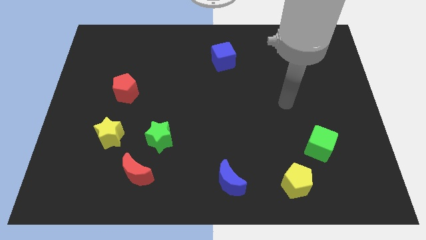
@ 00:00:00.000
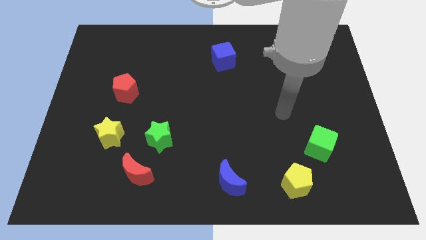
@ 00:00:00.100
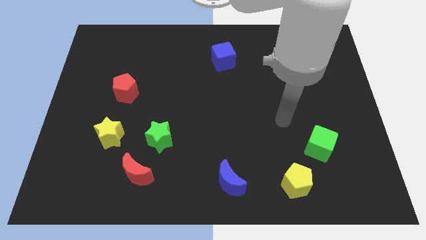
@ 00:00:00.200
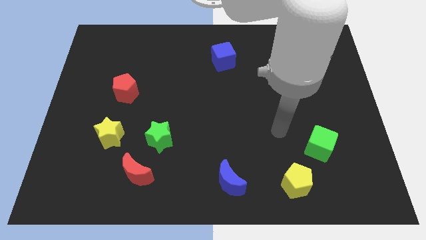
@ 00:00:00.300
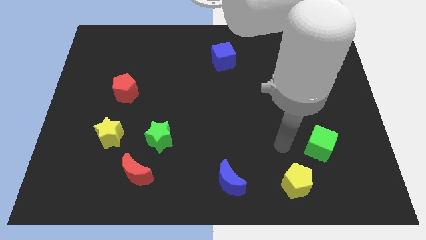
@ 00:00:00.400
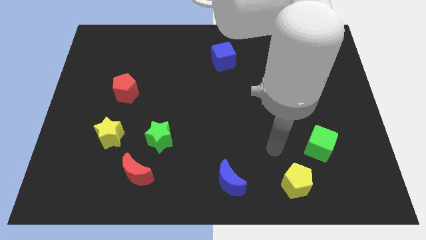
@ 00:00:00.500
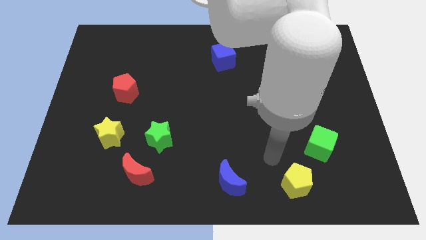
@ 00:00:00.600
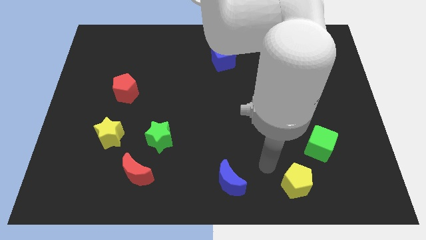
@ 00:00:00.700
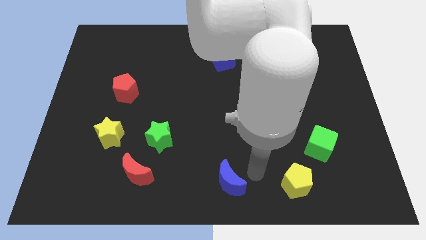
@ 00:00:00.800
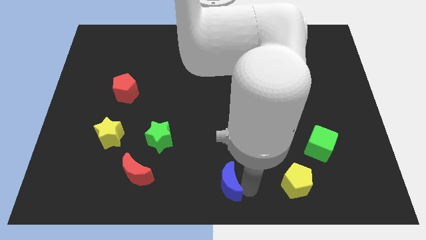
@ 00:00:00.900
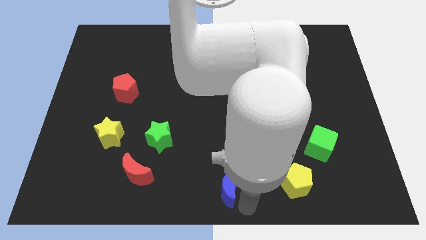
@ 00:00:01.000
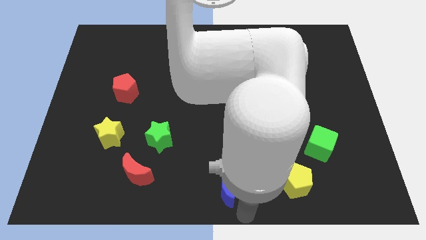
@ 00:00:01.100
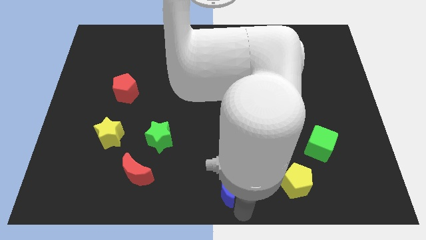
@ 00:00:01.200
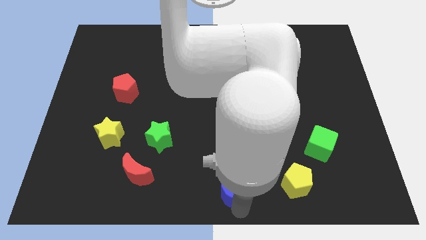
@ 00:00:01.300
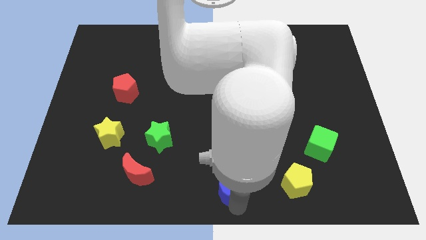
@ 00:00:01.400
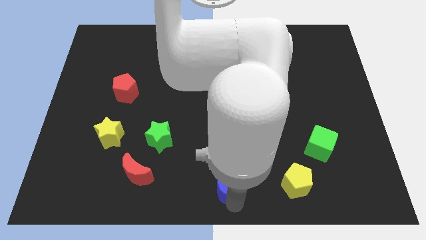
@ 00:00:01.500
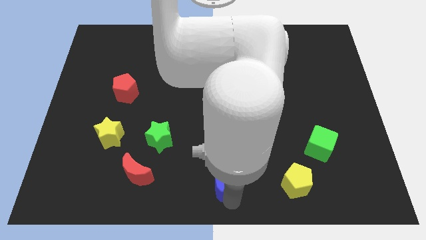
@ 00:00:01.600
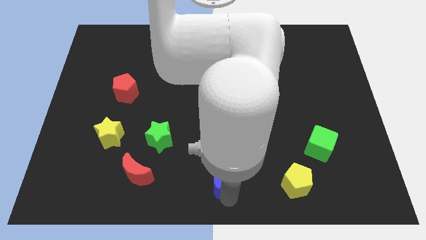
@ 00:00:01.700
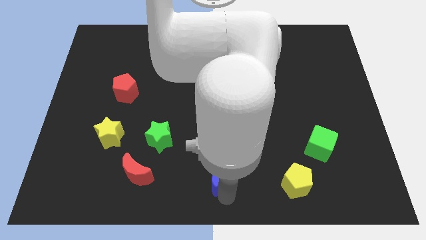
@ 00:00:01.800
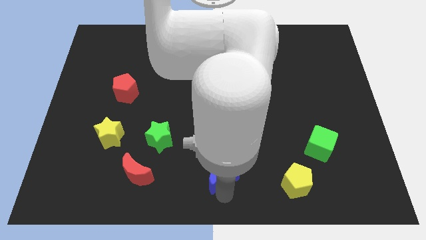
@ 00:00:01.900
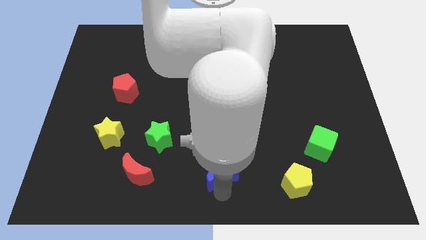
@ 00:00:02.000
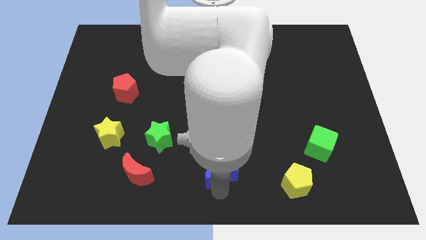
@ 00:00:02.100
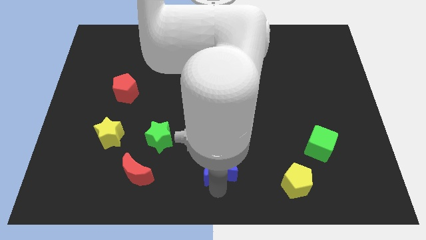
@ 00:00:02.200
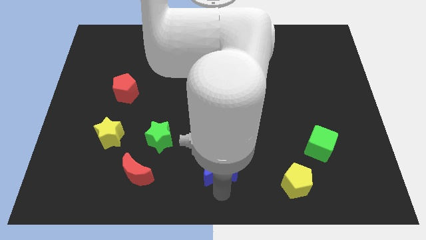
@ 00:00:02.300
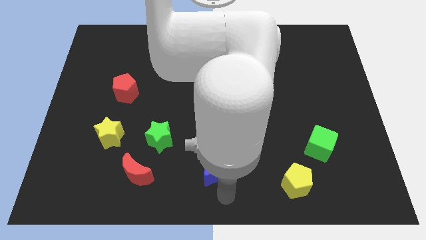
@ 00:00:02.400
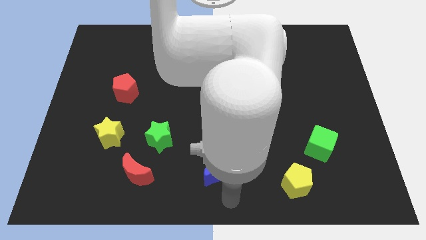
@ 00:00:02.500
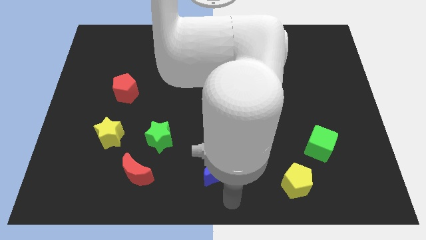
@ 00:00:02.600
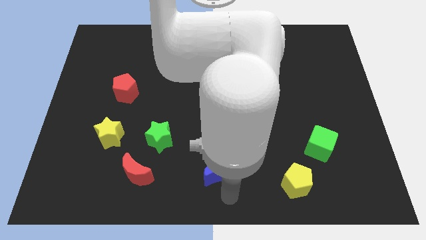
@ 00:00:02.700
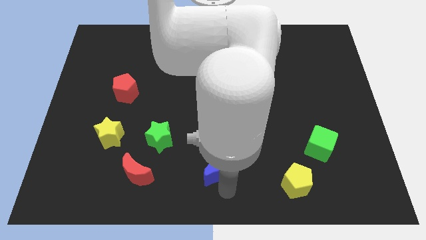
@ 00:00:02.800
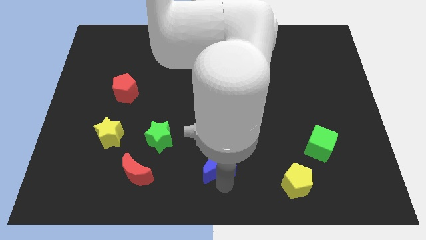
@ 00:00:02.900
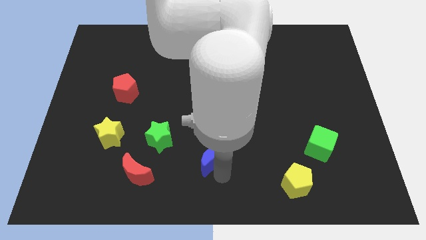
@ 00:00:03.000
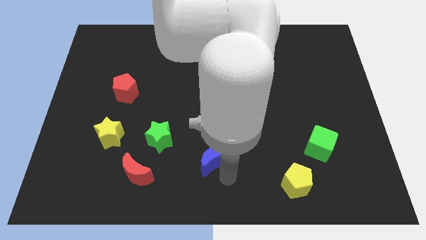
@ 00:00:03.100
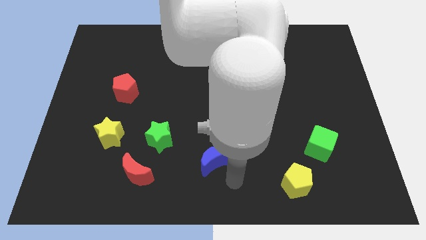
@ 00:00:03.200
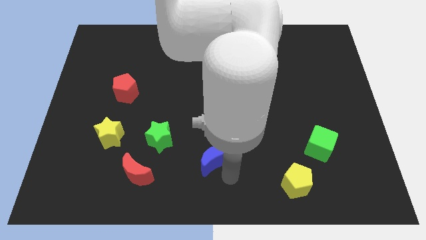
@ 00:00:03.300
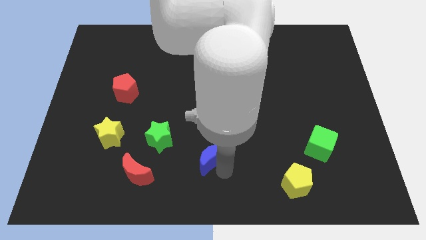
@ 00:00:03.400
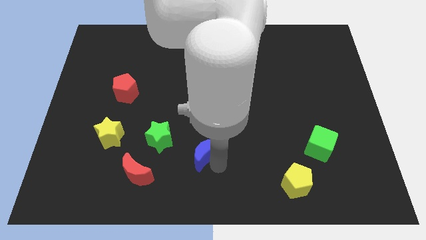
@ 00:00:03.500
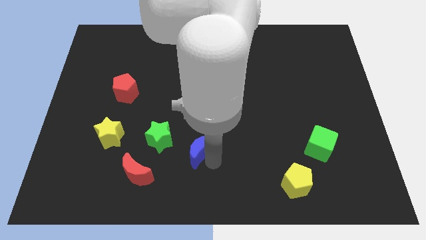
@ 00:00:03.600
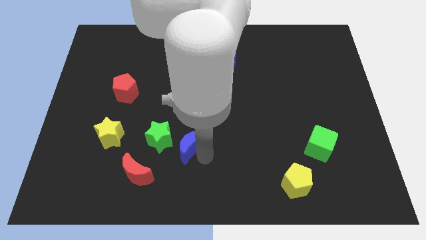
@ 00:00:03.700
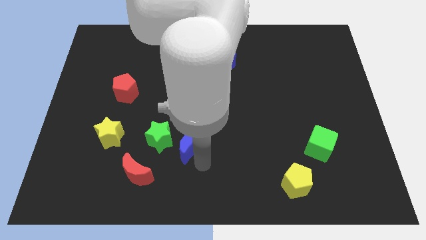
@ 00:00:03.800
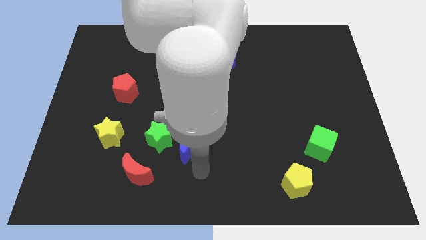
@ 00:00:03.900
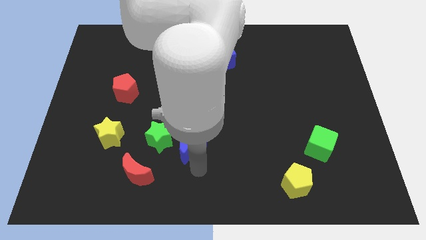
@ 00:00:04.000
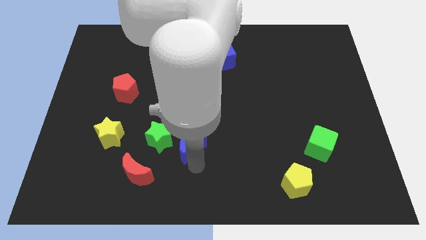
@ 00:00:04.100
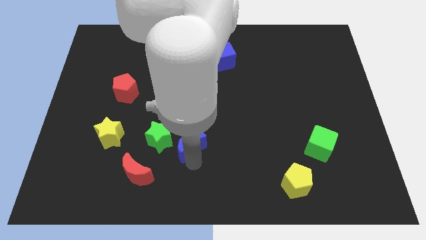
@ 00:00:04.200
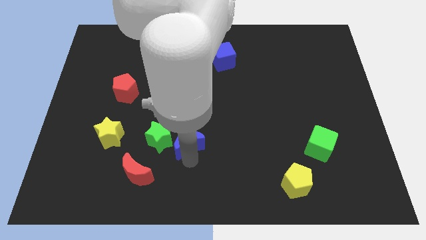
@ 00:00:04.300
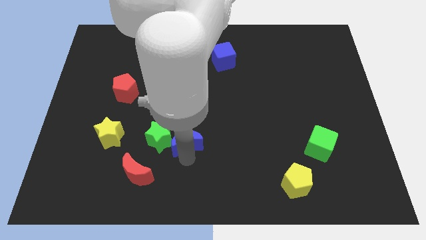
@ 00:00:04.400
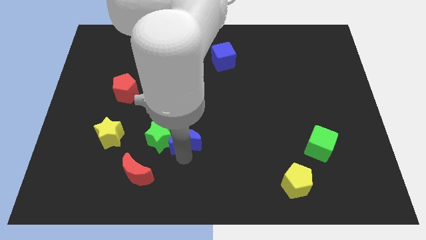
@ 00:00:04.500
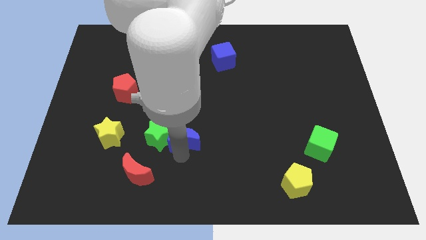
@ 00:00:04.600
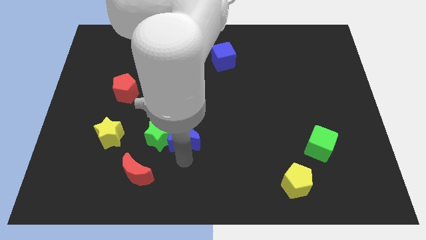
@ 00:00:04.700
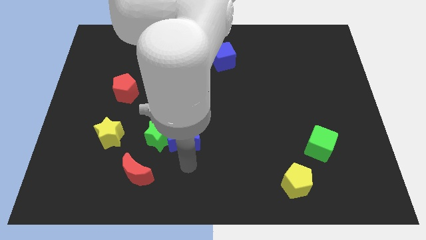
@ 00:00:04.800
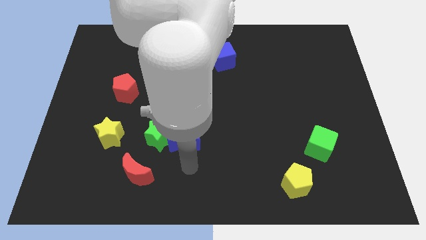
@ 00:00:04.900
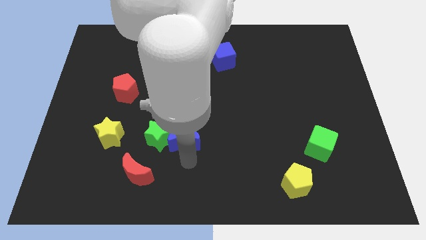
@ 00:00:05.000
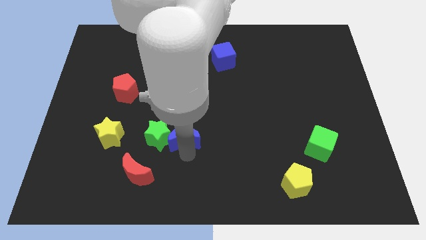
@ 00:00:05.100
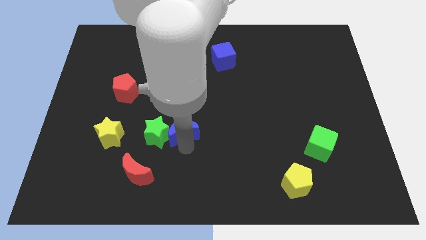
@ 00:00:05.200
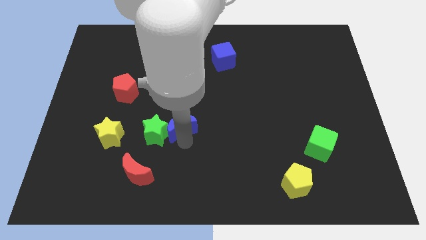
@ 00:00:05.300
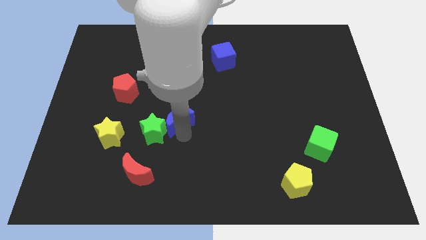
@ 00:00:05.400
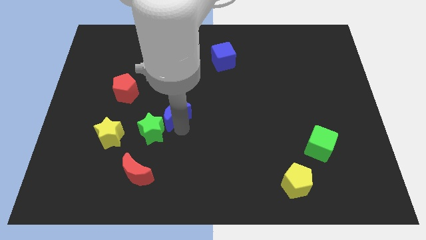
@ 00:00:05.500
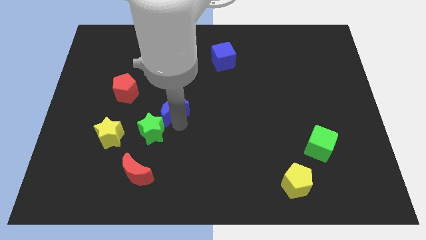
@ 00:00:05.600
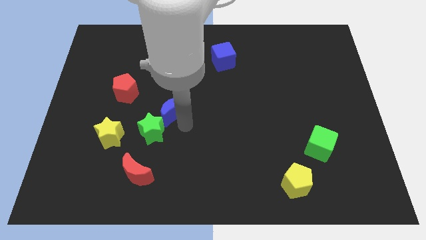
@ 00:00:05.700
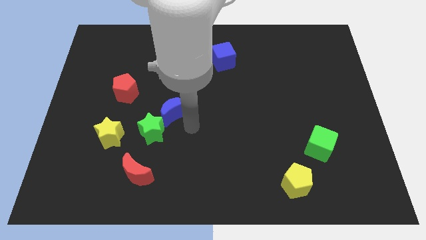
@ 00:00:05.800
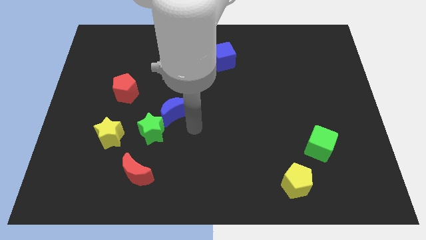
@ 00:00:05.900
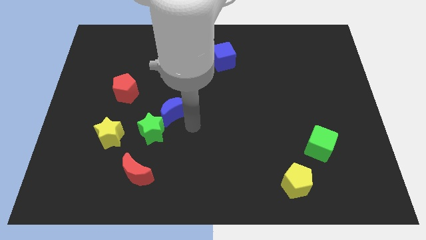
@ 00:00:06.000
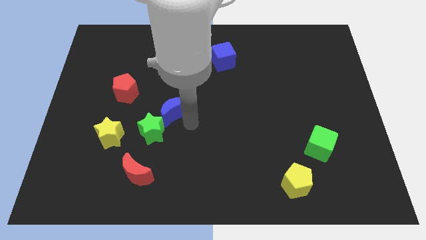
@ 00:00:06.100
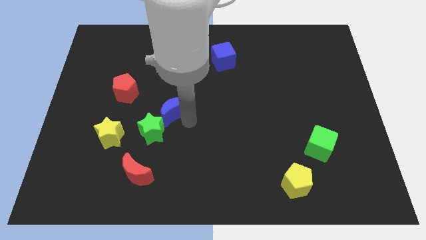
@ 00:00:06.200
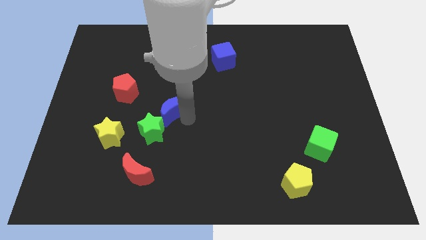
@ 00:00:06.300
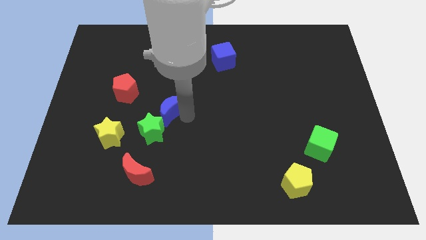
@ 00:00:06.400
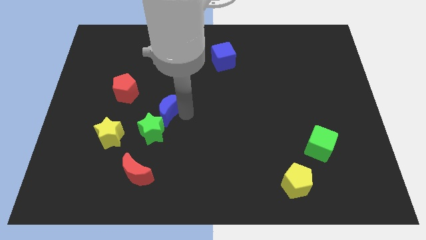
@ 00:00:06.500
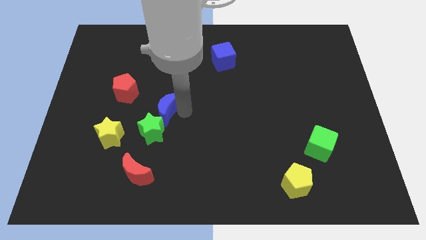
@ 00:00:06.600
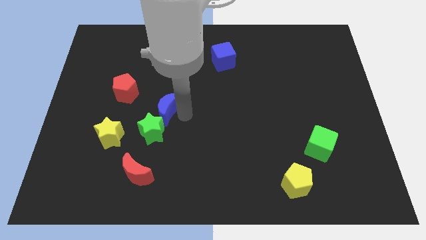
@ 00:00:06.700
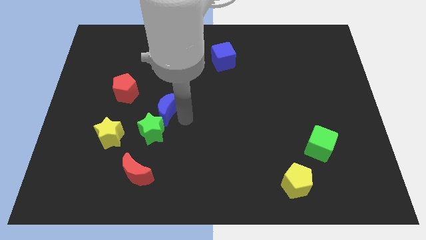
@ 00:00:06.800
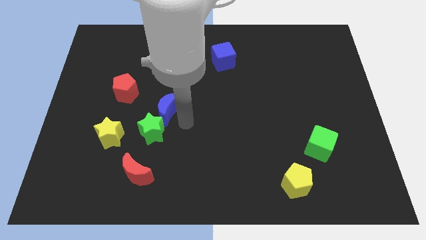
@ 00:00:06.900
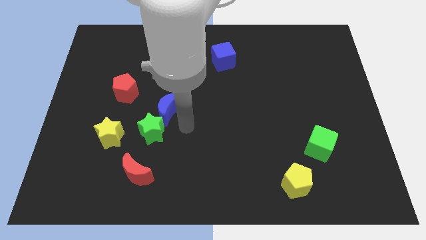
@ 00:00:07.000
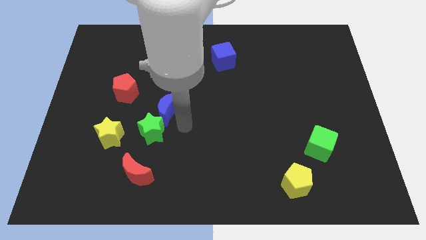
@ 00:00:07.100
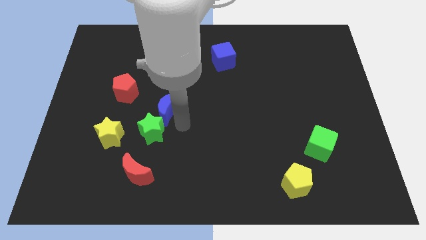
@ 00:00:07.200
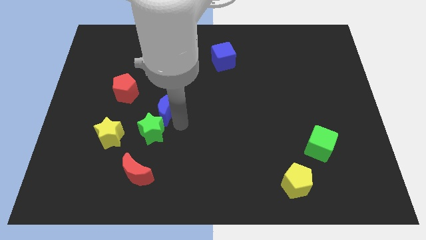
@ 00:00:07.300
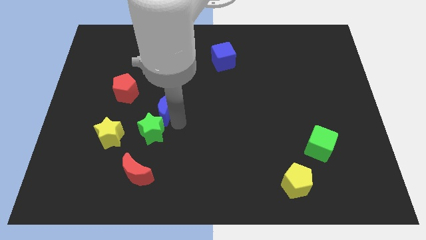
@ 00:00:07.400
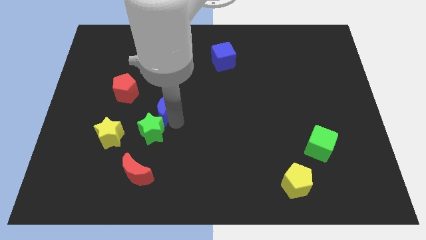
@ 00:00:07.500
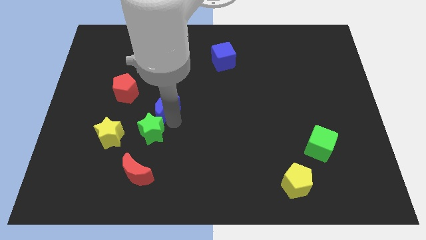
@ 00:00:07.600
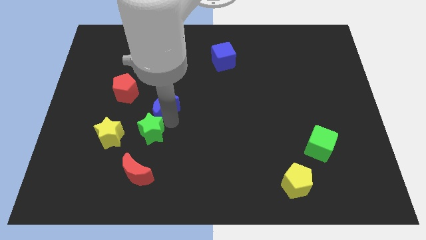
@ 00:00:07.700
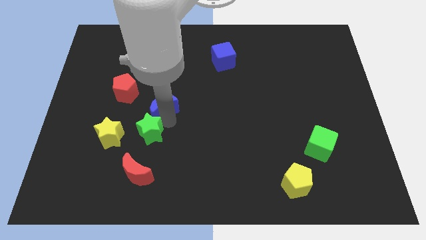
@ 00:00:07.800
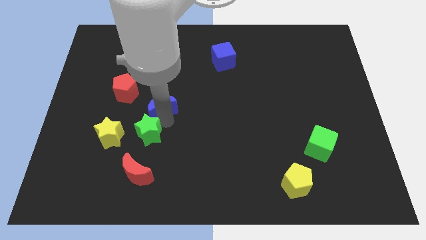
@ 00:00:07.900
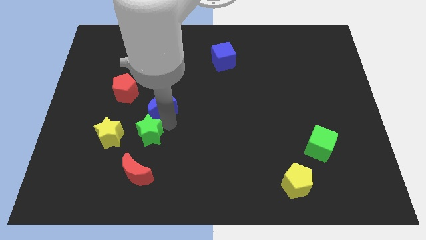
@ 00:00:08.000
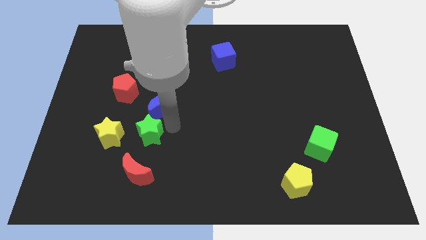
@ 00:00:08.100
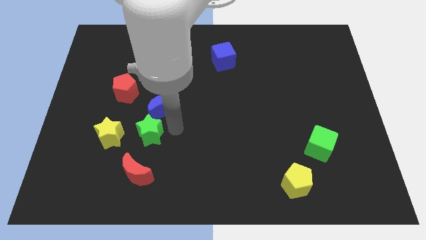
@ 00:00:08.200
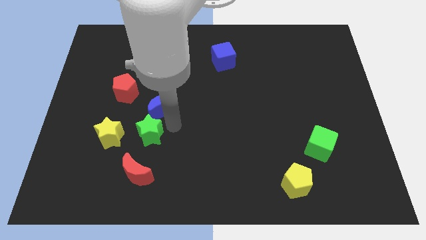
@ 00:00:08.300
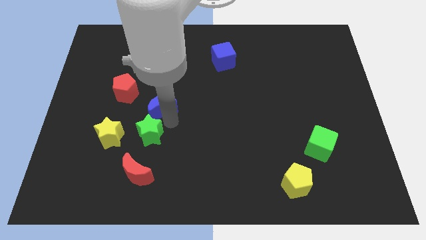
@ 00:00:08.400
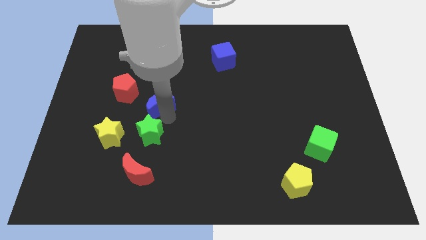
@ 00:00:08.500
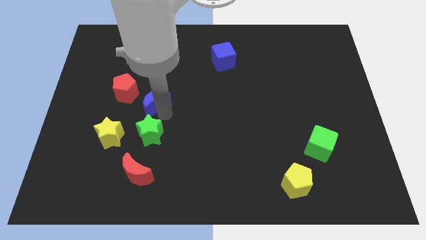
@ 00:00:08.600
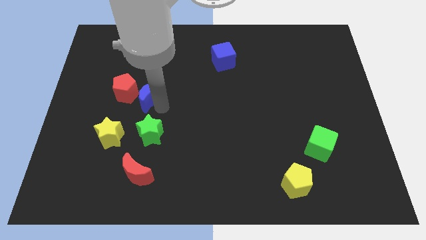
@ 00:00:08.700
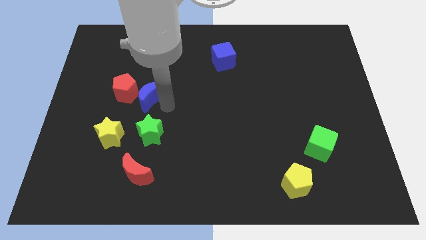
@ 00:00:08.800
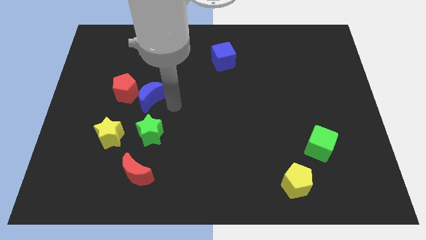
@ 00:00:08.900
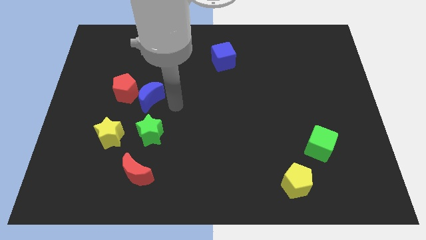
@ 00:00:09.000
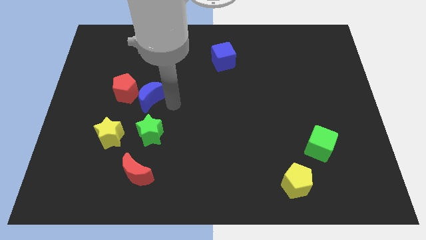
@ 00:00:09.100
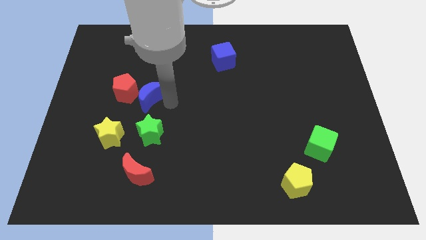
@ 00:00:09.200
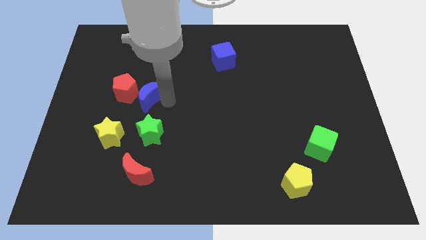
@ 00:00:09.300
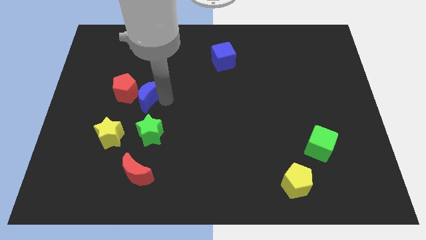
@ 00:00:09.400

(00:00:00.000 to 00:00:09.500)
push the blue moon to the red pentagon
